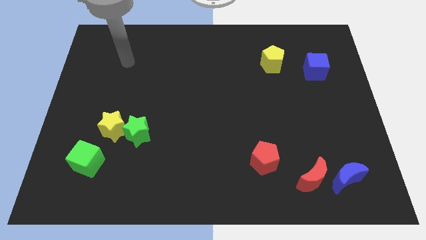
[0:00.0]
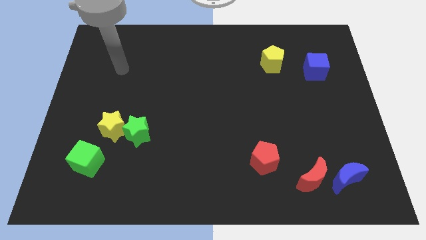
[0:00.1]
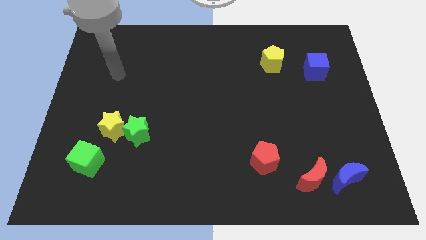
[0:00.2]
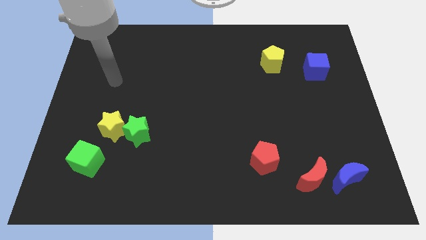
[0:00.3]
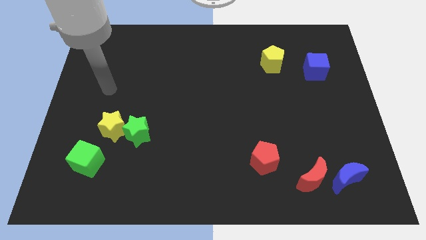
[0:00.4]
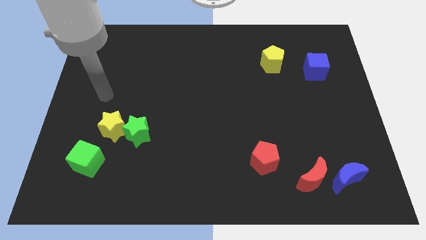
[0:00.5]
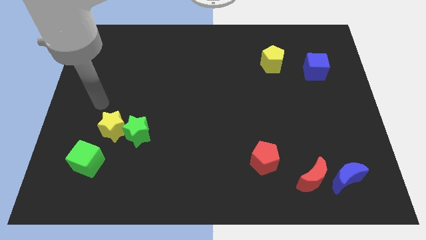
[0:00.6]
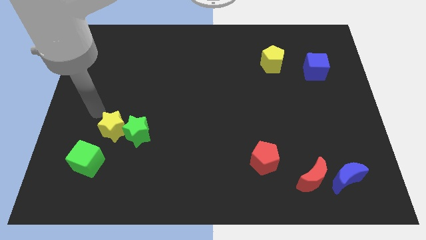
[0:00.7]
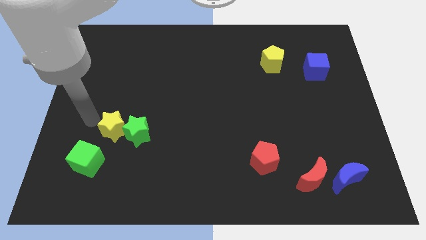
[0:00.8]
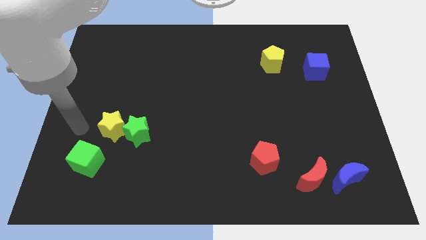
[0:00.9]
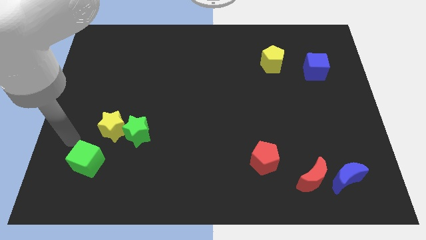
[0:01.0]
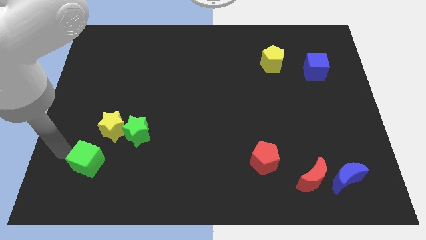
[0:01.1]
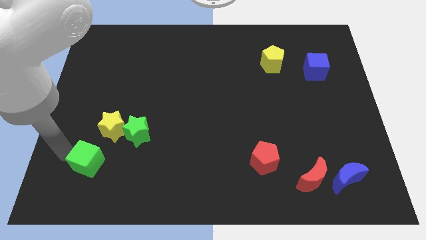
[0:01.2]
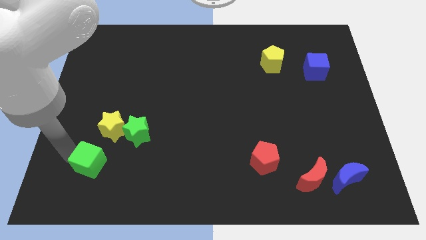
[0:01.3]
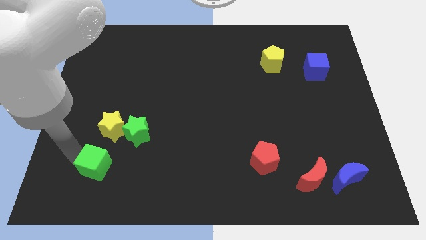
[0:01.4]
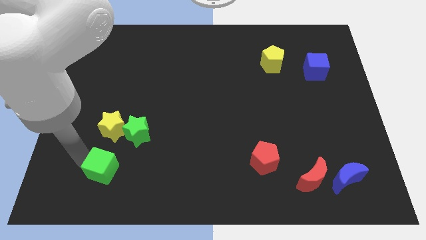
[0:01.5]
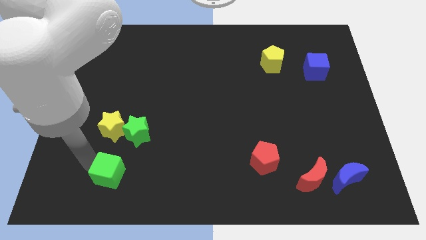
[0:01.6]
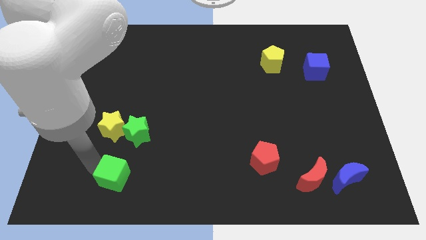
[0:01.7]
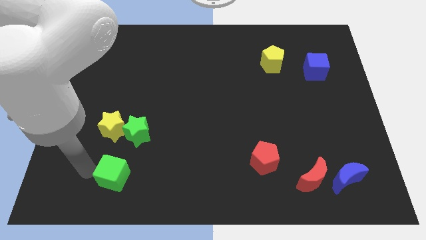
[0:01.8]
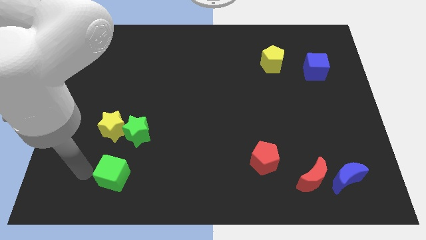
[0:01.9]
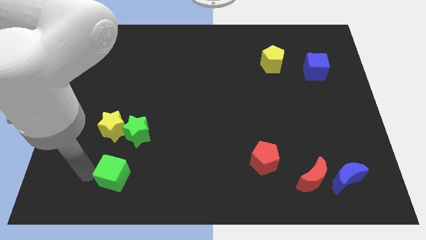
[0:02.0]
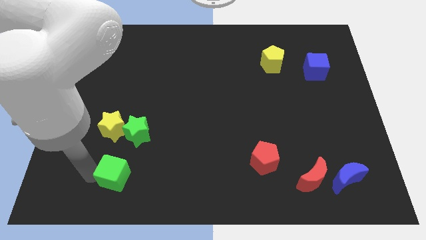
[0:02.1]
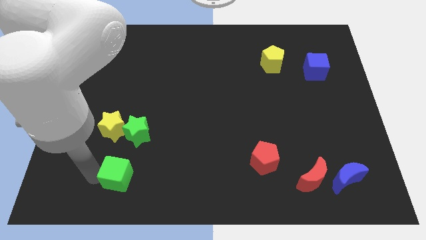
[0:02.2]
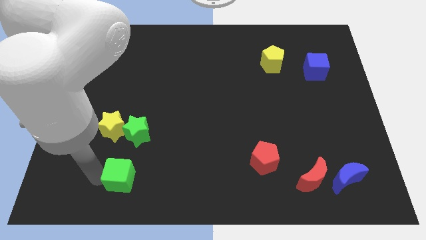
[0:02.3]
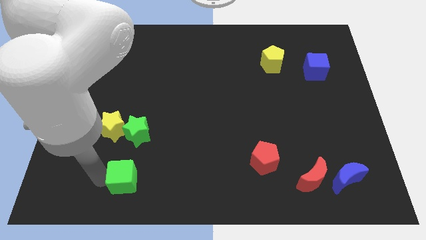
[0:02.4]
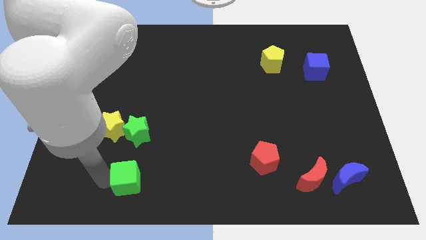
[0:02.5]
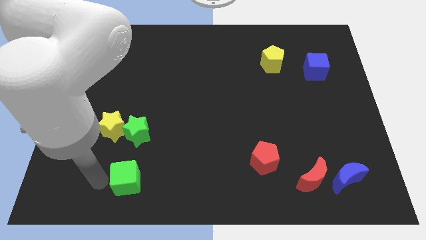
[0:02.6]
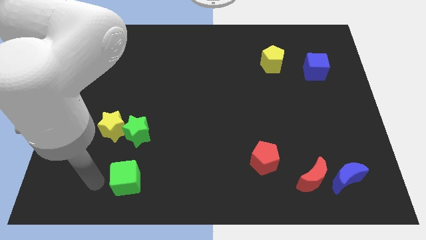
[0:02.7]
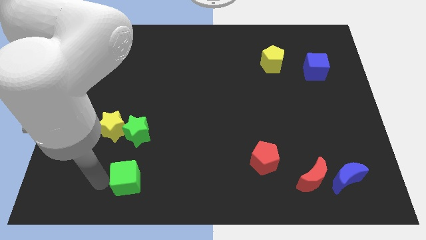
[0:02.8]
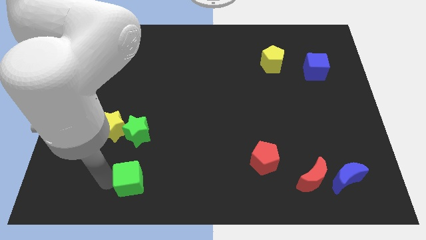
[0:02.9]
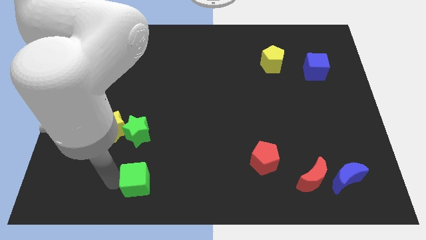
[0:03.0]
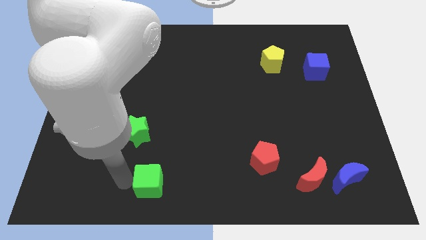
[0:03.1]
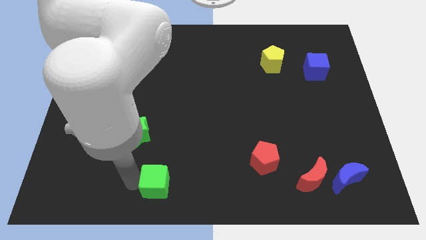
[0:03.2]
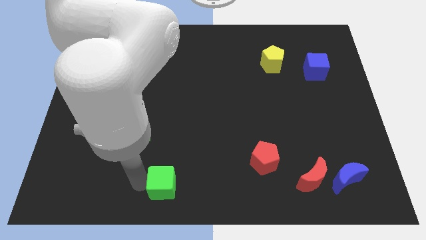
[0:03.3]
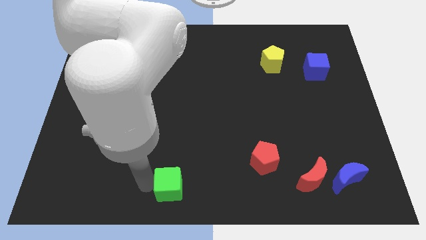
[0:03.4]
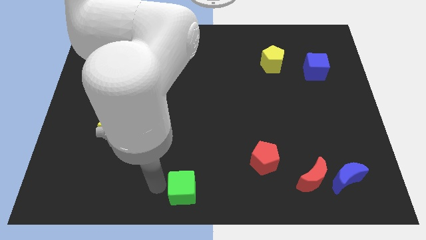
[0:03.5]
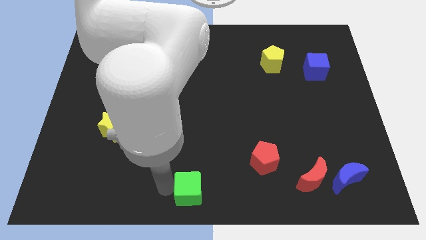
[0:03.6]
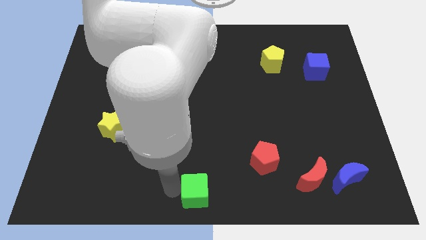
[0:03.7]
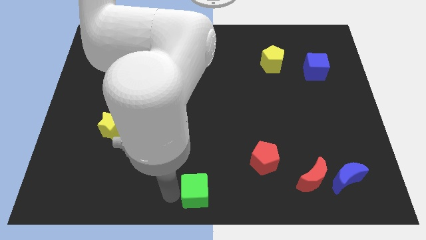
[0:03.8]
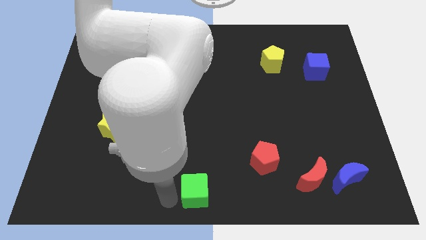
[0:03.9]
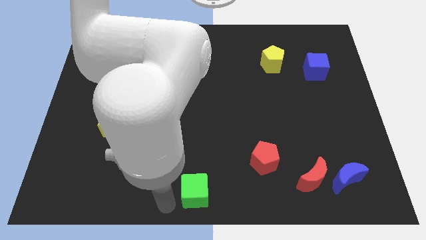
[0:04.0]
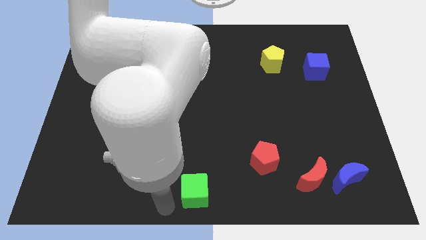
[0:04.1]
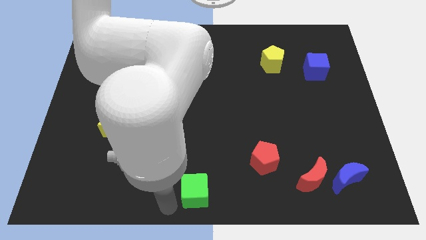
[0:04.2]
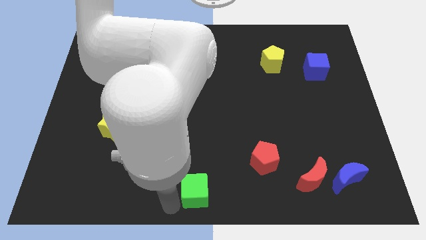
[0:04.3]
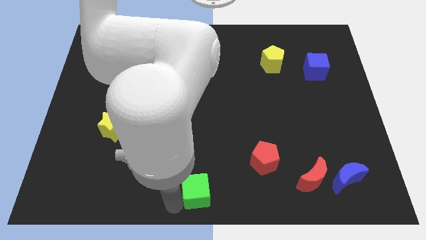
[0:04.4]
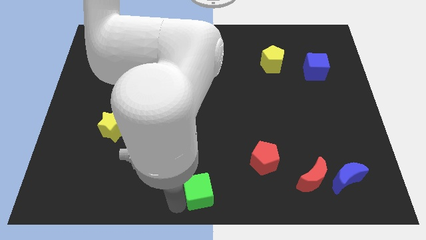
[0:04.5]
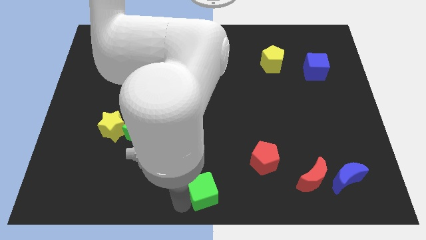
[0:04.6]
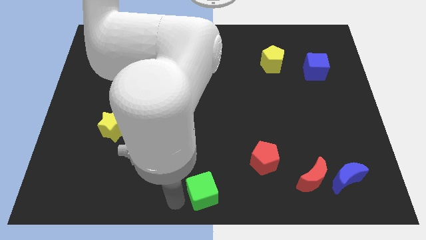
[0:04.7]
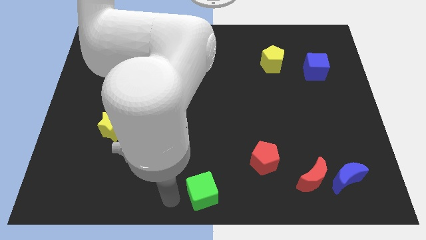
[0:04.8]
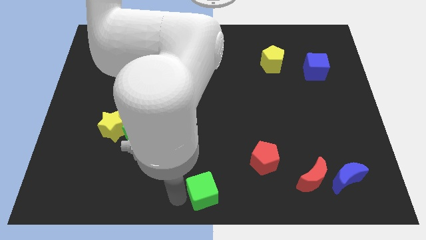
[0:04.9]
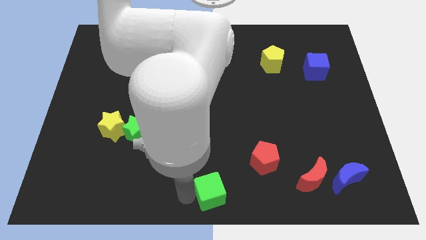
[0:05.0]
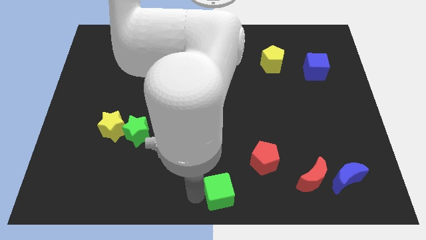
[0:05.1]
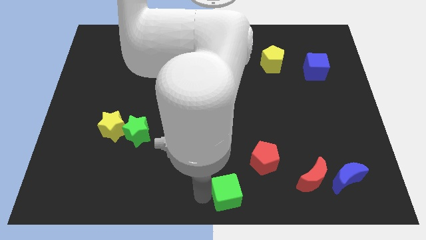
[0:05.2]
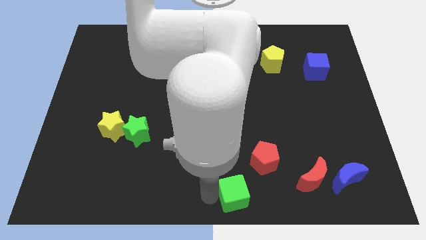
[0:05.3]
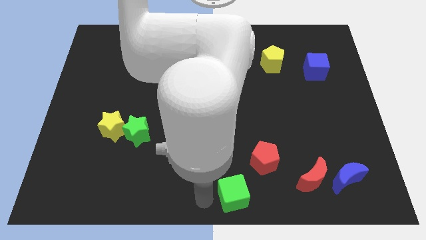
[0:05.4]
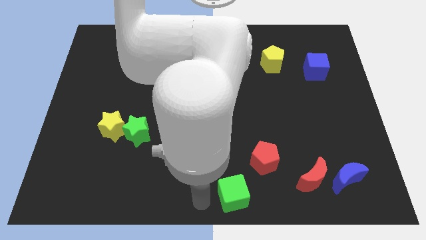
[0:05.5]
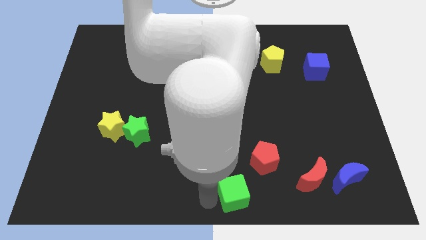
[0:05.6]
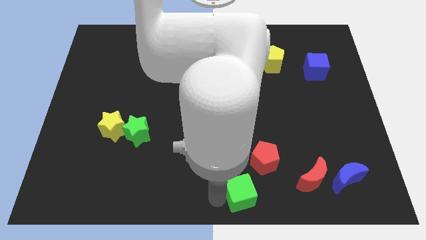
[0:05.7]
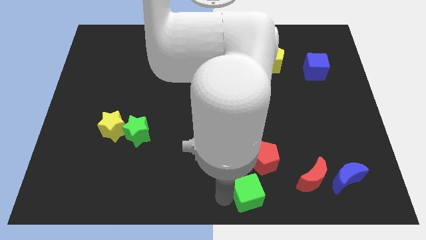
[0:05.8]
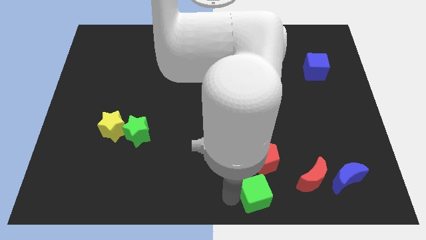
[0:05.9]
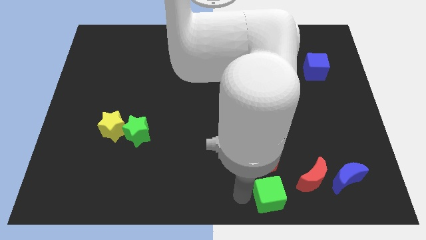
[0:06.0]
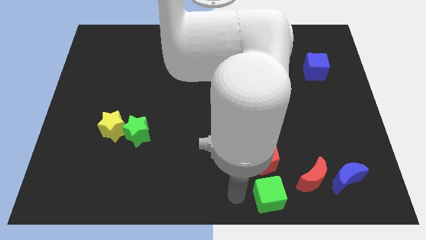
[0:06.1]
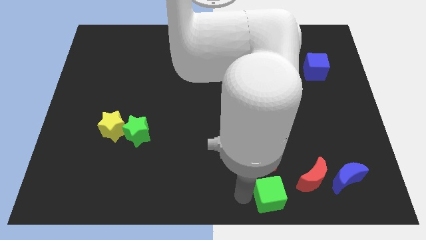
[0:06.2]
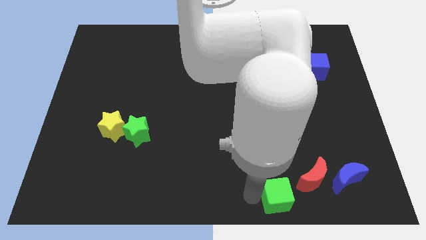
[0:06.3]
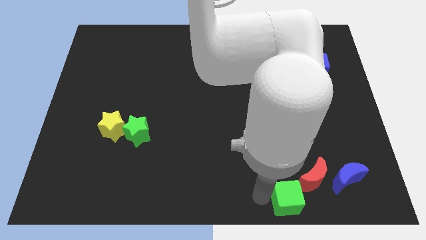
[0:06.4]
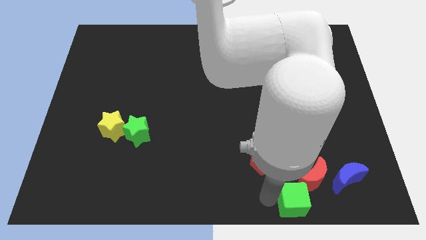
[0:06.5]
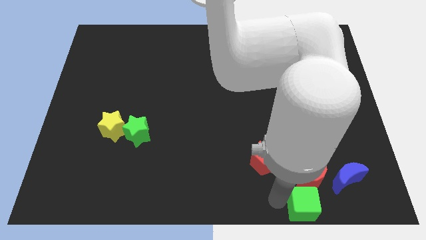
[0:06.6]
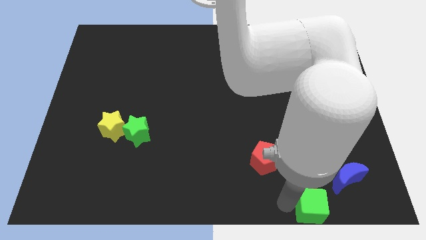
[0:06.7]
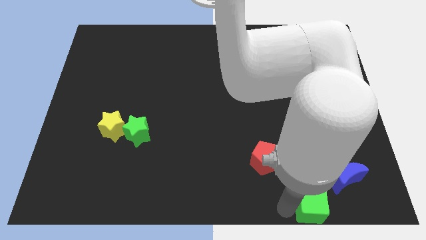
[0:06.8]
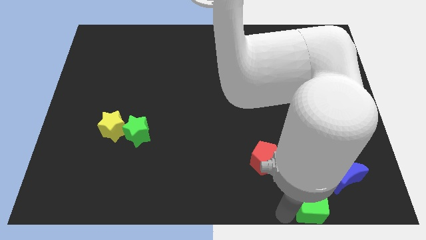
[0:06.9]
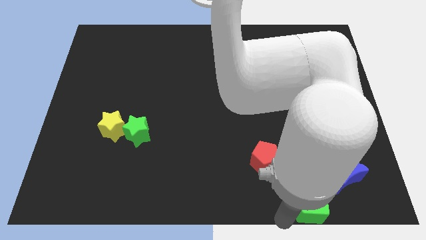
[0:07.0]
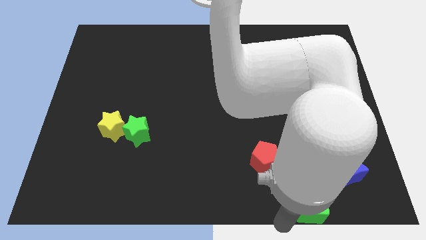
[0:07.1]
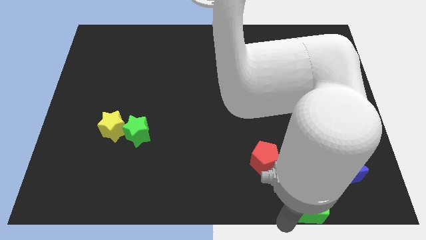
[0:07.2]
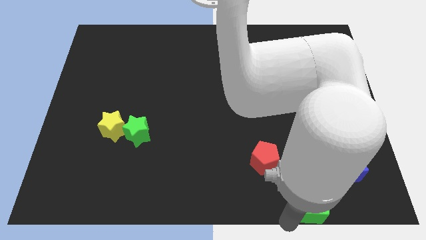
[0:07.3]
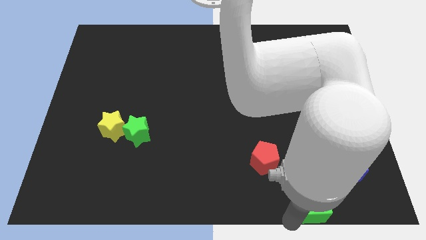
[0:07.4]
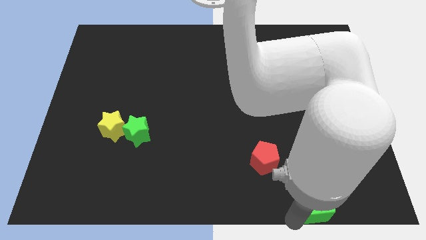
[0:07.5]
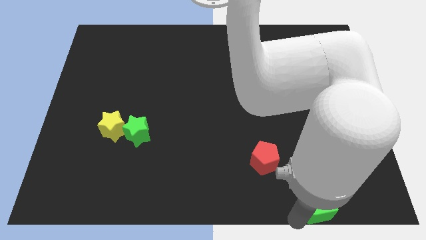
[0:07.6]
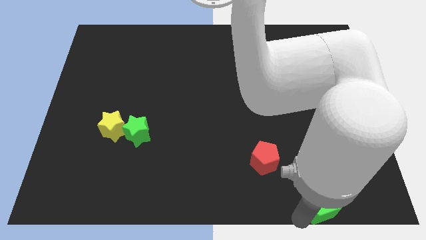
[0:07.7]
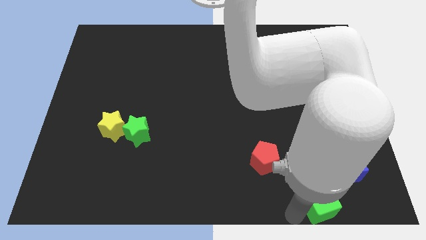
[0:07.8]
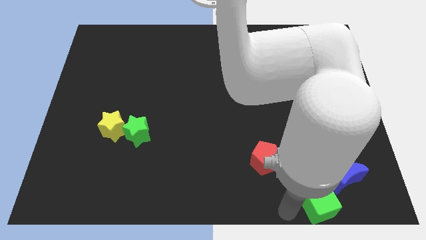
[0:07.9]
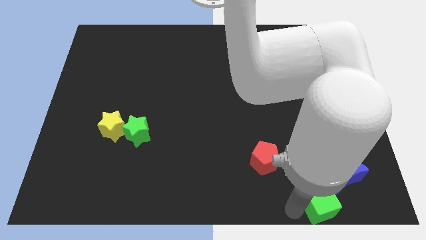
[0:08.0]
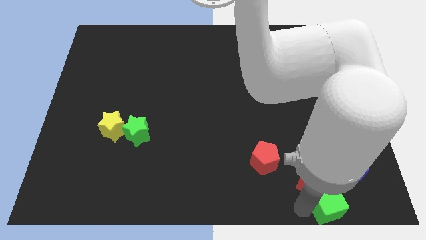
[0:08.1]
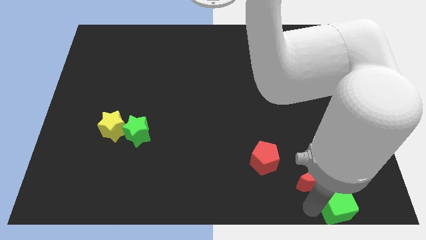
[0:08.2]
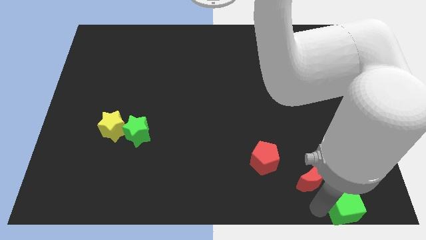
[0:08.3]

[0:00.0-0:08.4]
push the green cube to the bottom right corner
